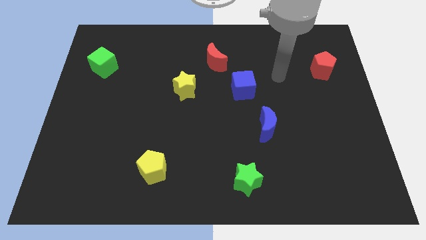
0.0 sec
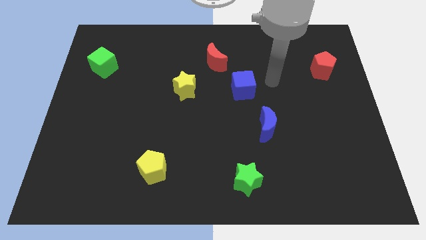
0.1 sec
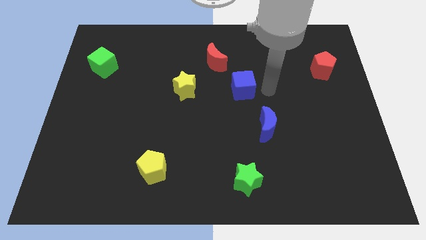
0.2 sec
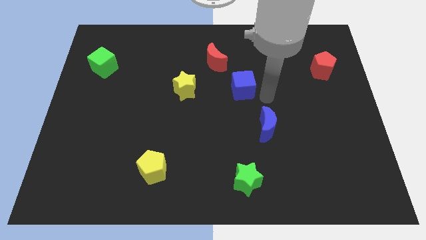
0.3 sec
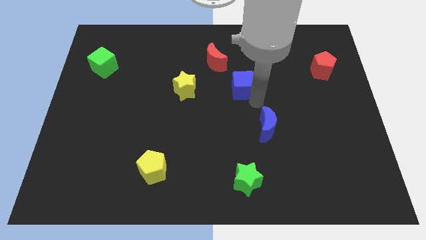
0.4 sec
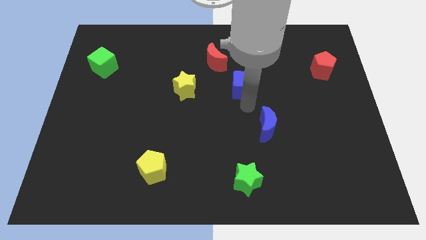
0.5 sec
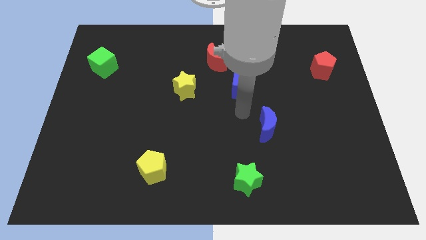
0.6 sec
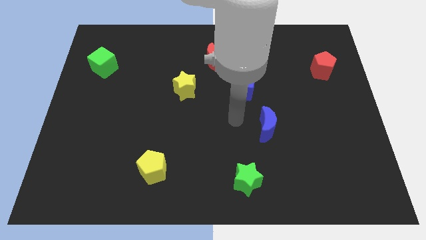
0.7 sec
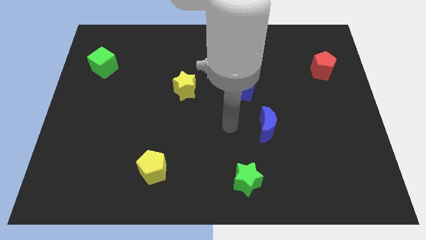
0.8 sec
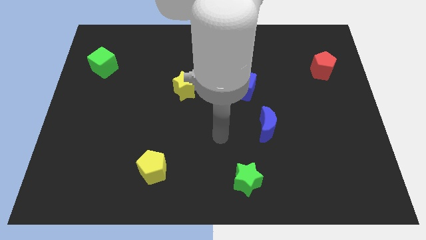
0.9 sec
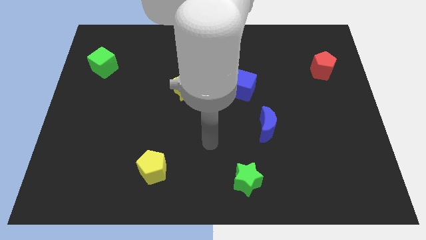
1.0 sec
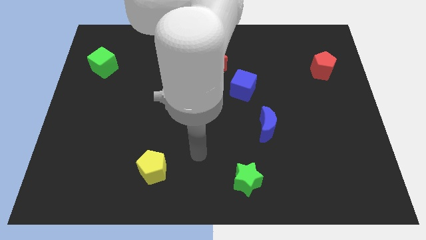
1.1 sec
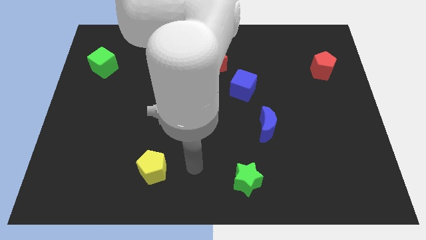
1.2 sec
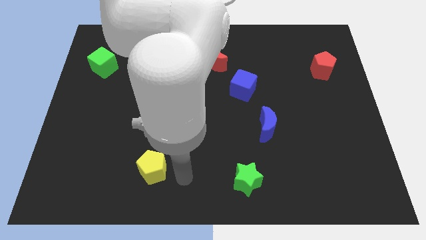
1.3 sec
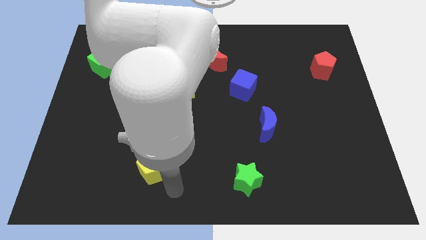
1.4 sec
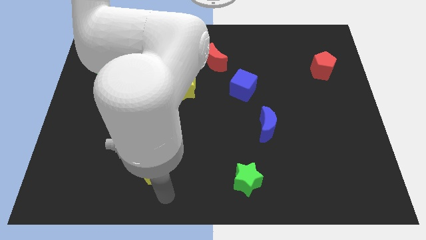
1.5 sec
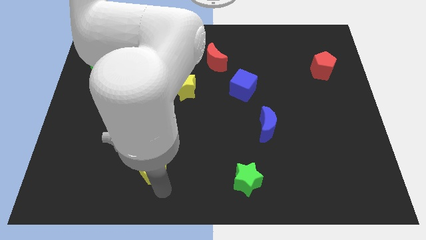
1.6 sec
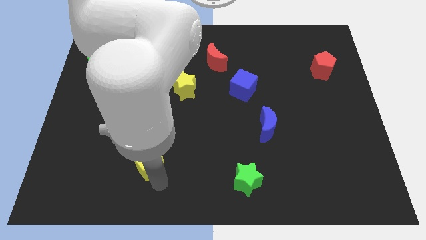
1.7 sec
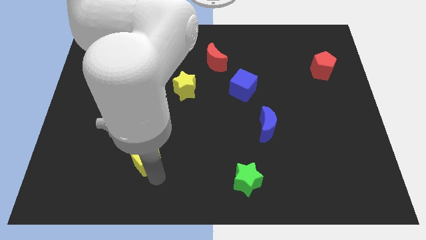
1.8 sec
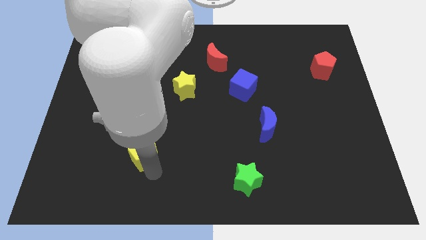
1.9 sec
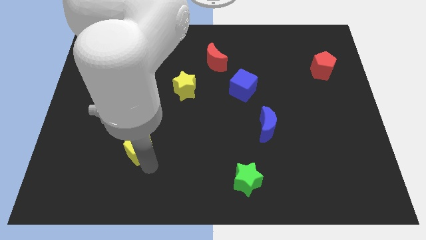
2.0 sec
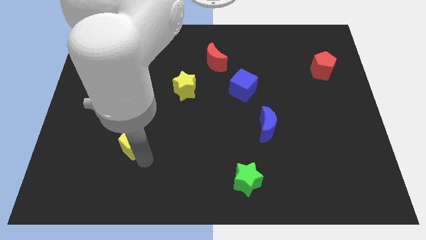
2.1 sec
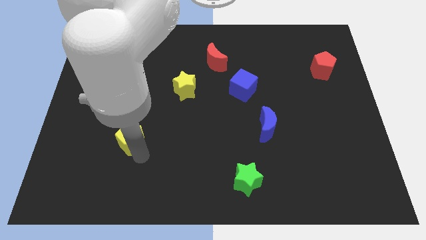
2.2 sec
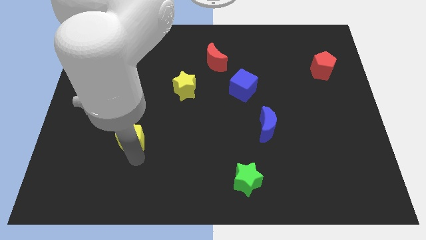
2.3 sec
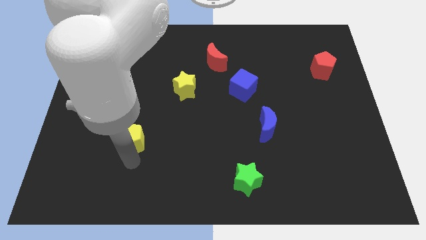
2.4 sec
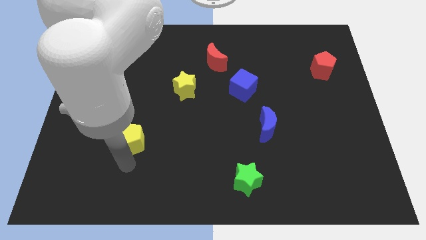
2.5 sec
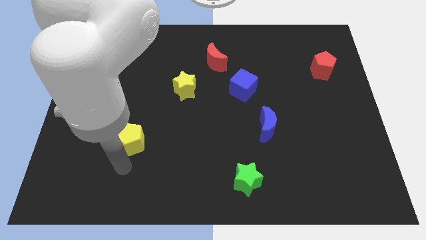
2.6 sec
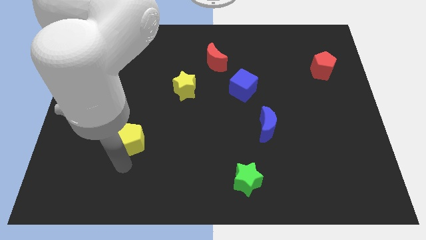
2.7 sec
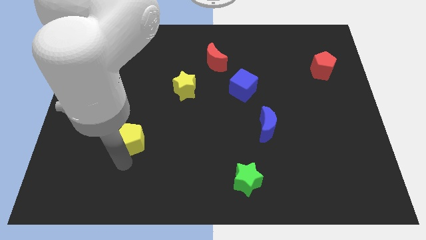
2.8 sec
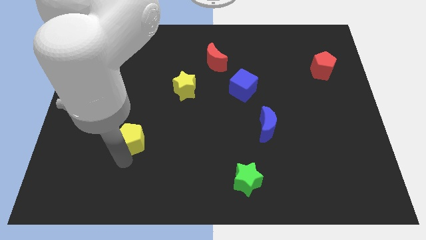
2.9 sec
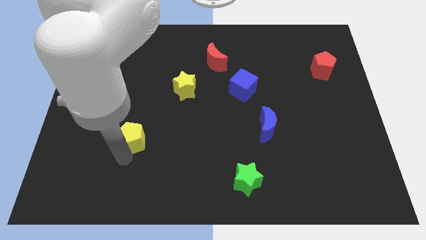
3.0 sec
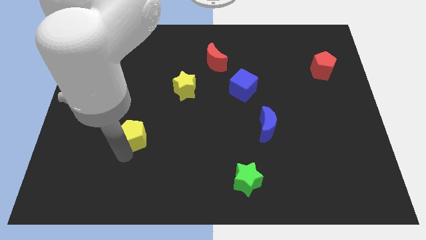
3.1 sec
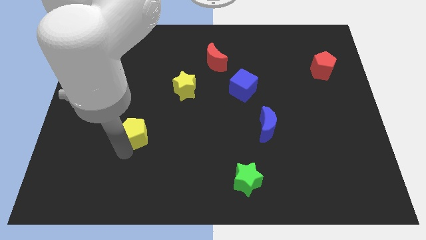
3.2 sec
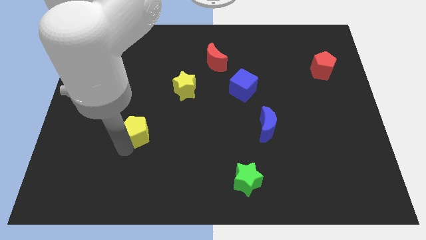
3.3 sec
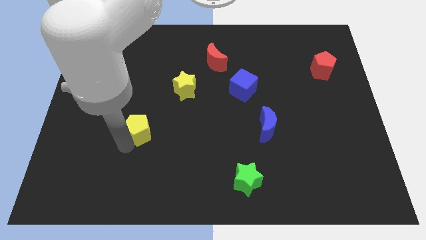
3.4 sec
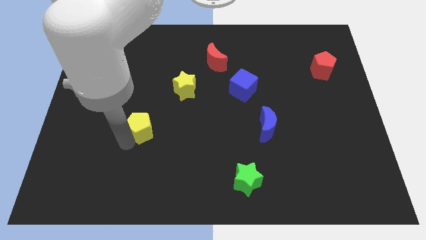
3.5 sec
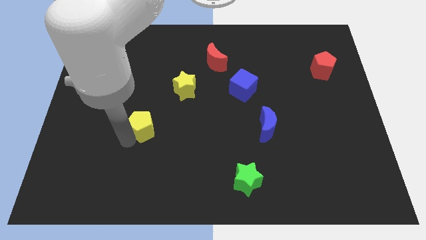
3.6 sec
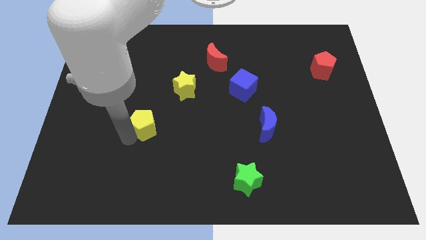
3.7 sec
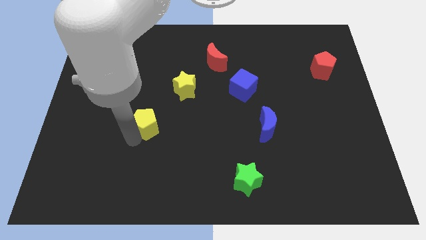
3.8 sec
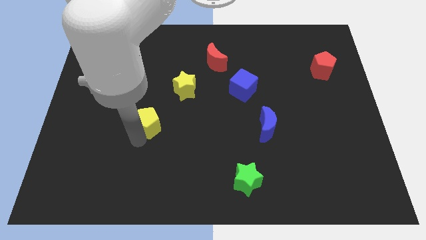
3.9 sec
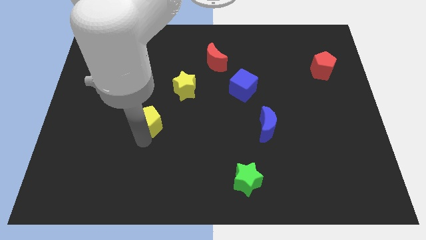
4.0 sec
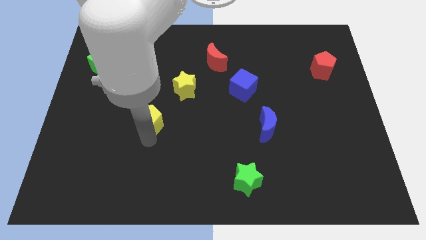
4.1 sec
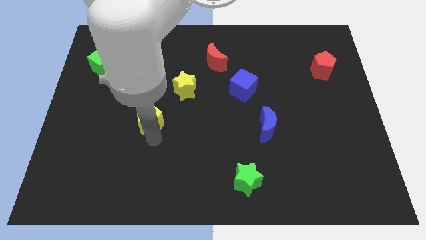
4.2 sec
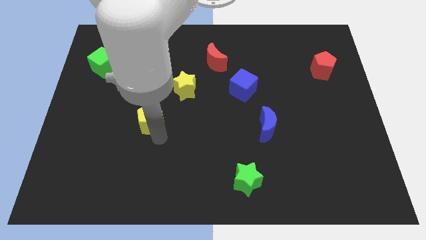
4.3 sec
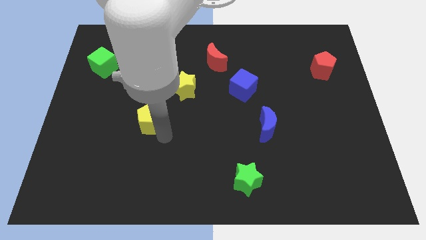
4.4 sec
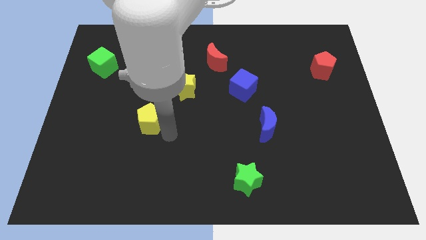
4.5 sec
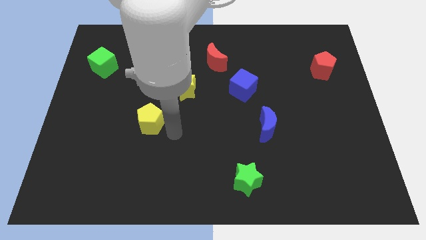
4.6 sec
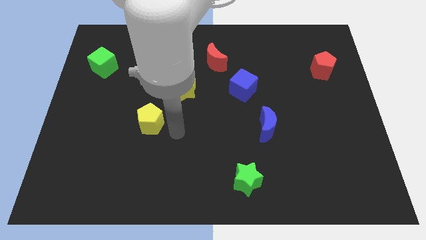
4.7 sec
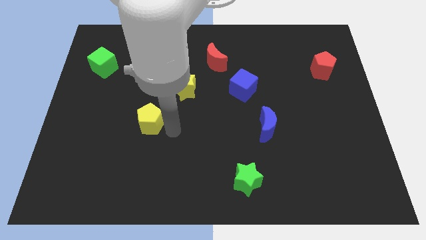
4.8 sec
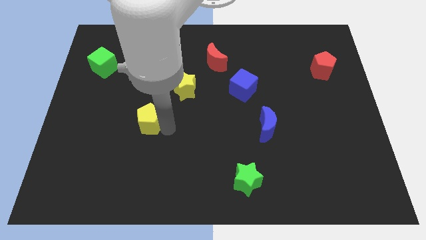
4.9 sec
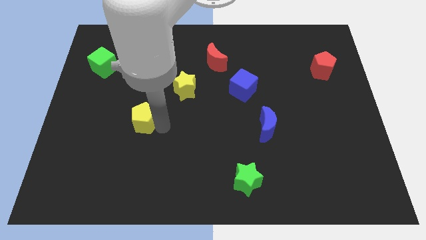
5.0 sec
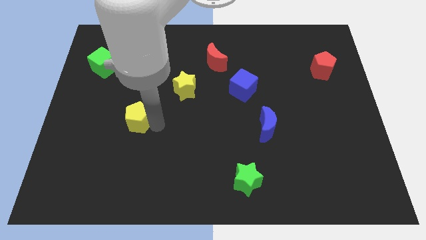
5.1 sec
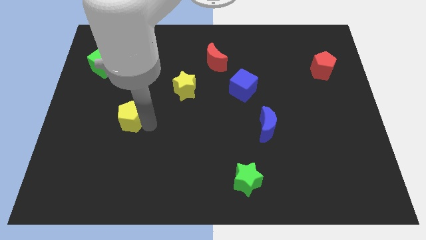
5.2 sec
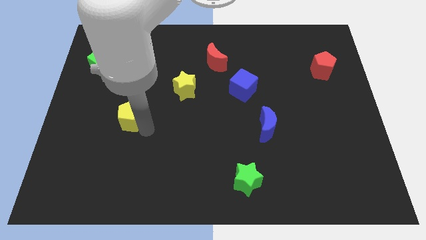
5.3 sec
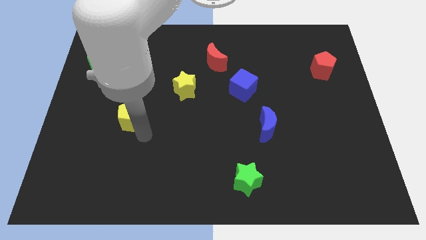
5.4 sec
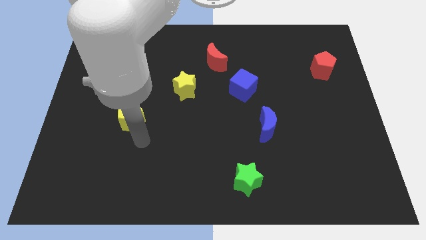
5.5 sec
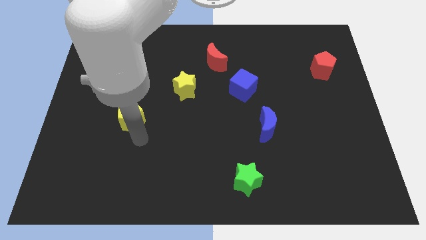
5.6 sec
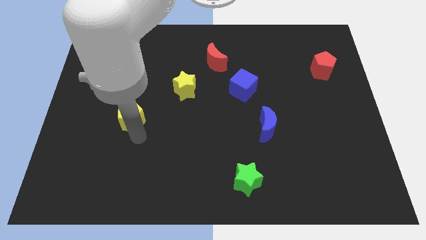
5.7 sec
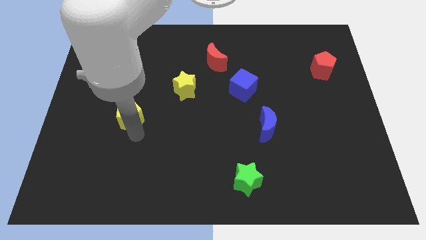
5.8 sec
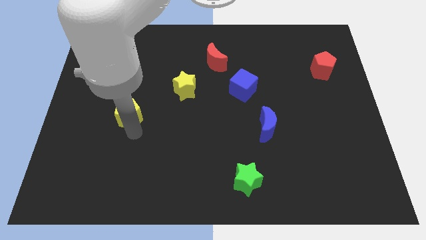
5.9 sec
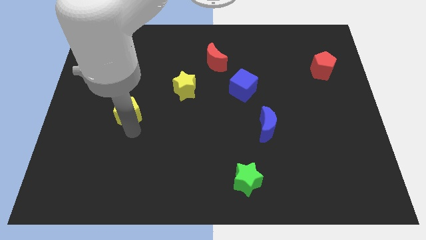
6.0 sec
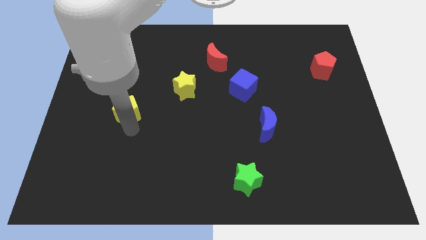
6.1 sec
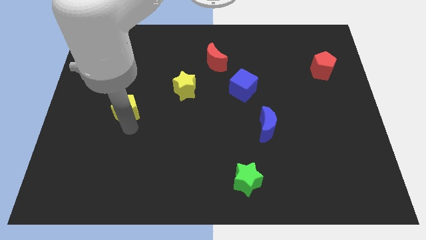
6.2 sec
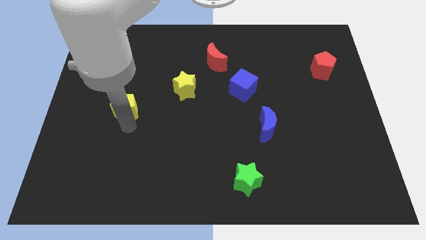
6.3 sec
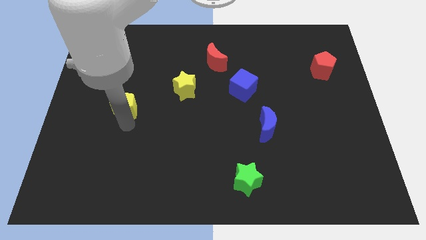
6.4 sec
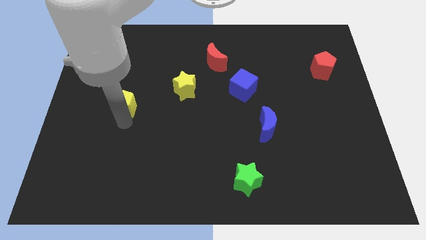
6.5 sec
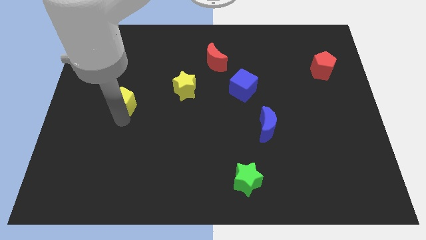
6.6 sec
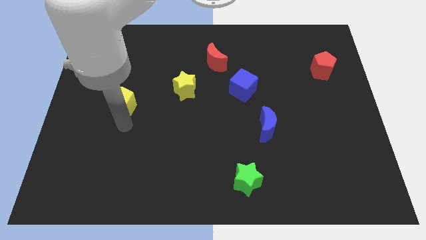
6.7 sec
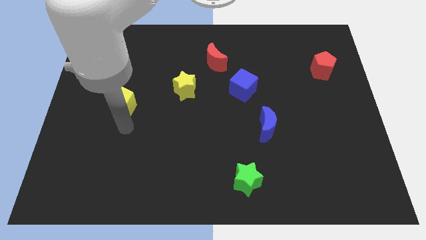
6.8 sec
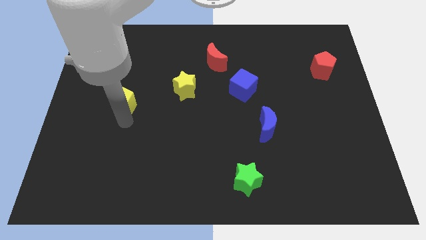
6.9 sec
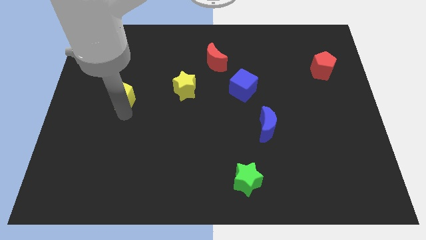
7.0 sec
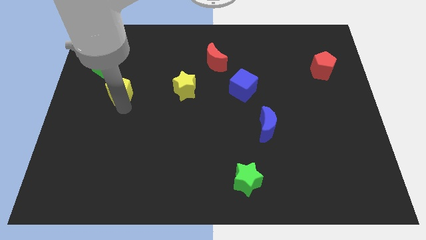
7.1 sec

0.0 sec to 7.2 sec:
slide the yellow pentagon to the bottom right of the green cube

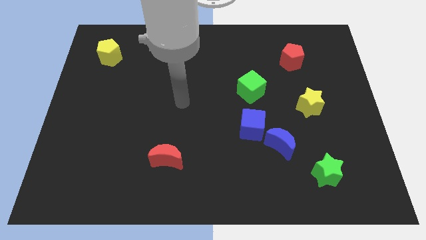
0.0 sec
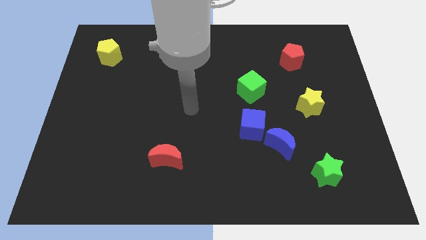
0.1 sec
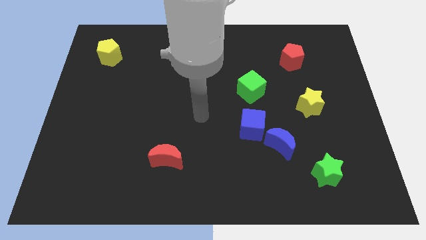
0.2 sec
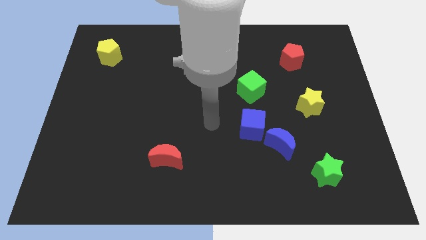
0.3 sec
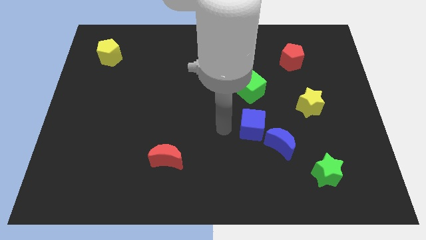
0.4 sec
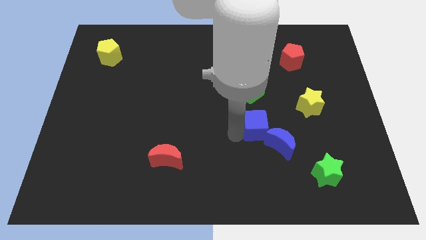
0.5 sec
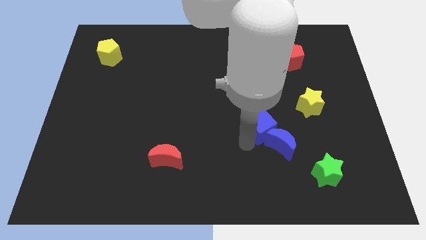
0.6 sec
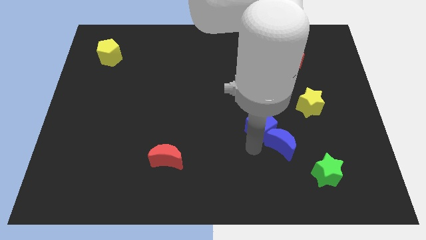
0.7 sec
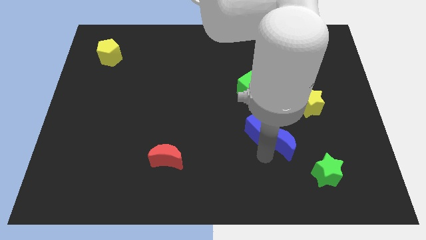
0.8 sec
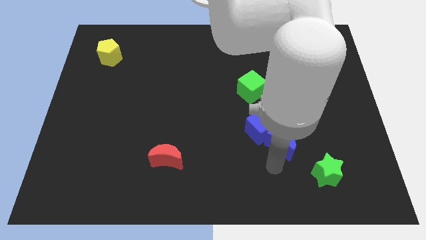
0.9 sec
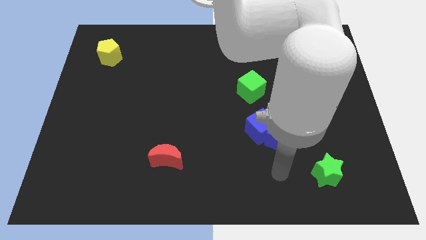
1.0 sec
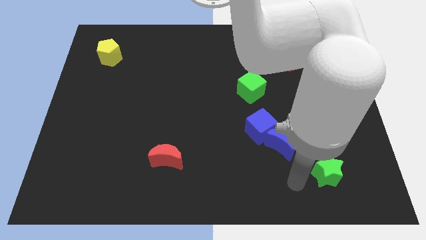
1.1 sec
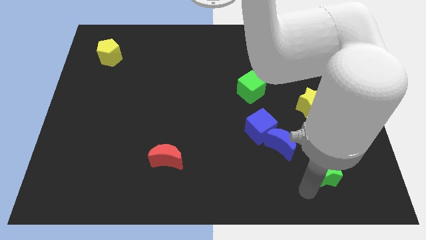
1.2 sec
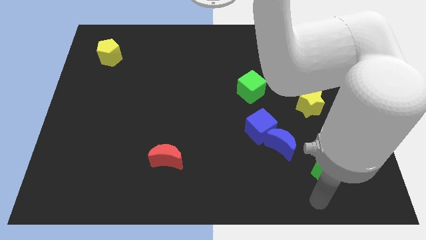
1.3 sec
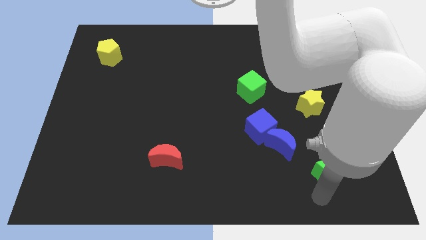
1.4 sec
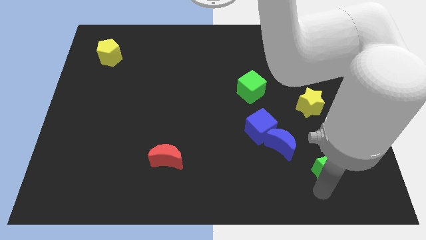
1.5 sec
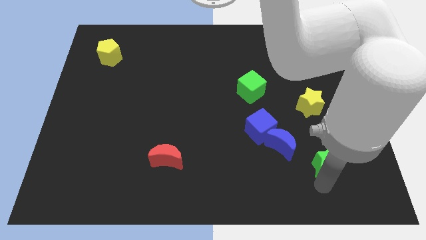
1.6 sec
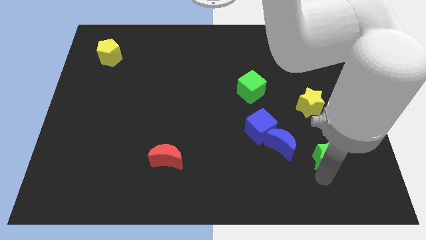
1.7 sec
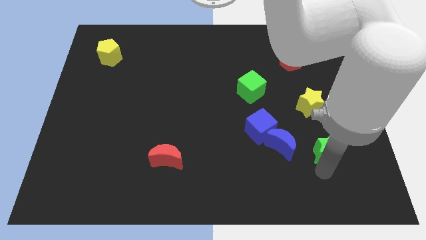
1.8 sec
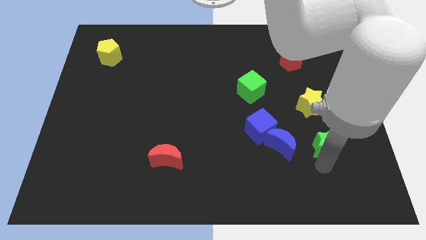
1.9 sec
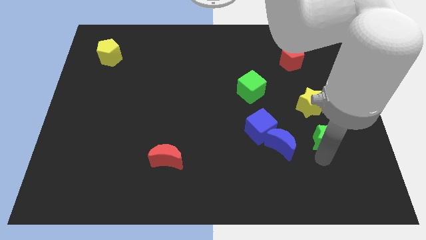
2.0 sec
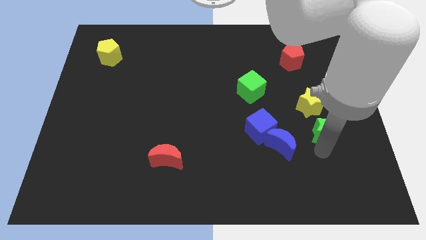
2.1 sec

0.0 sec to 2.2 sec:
put the green star diagonally down and to the right of the yellow star
